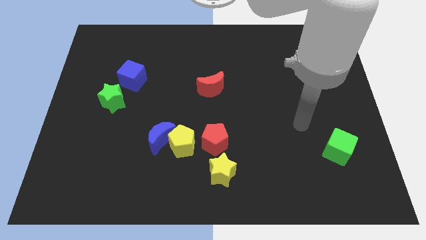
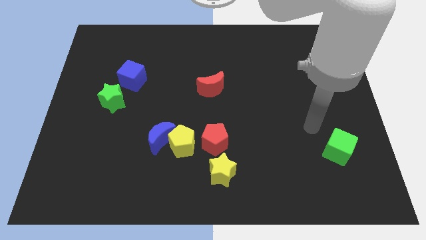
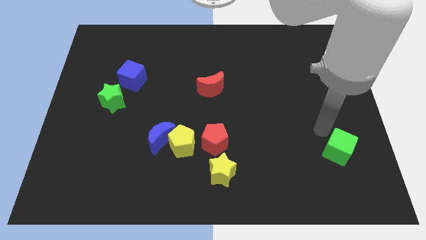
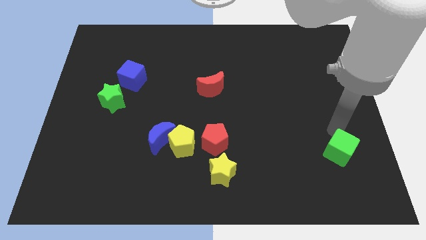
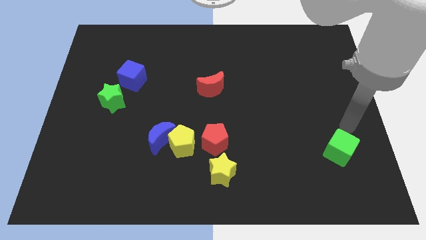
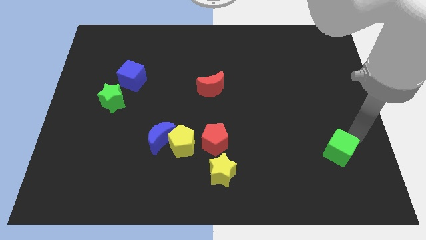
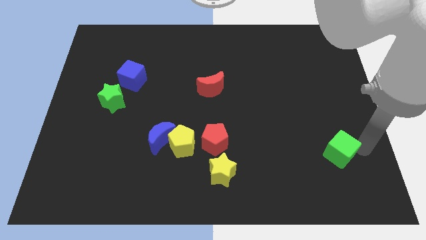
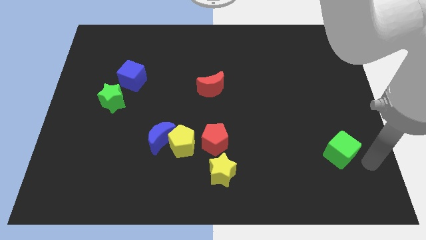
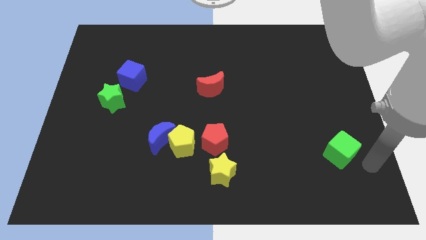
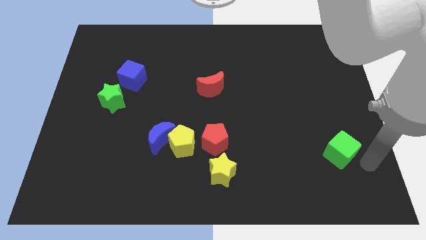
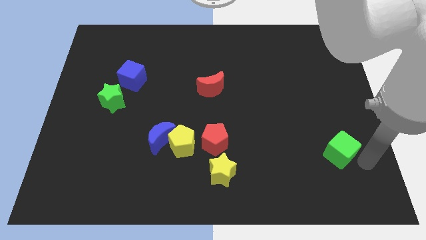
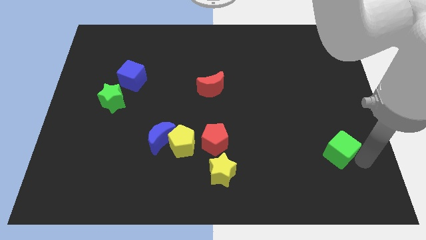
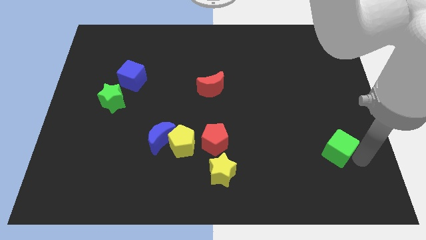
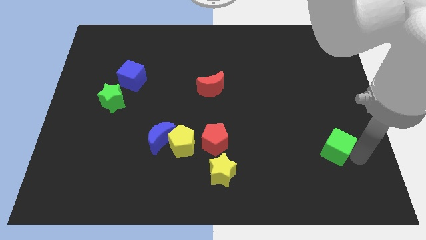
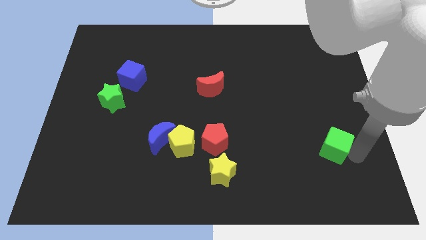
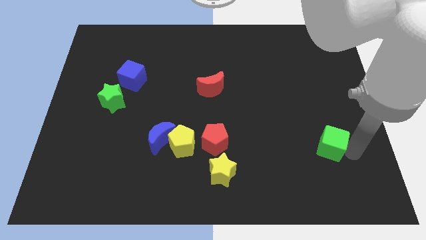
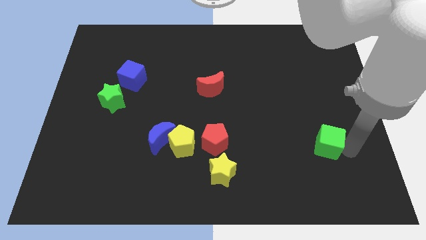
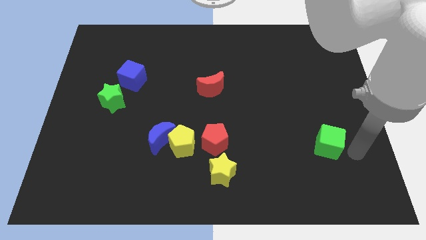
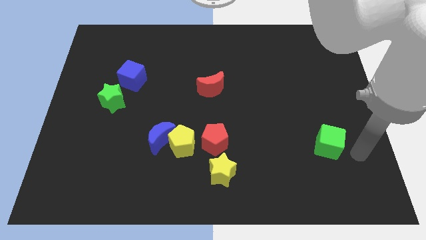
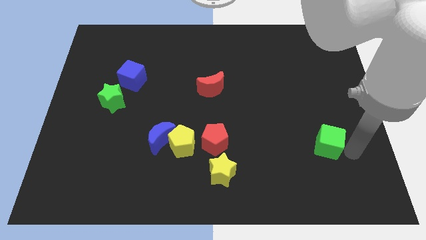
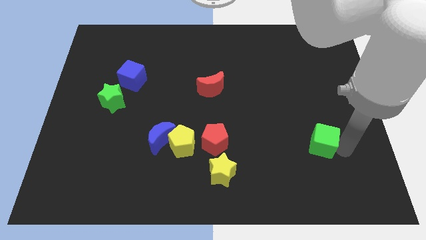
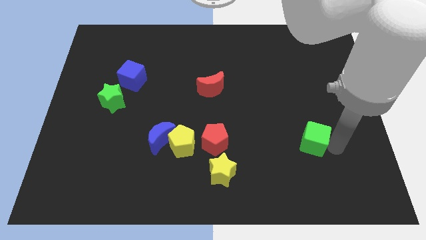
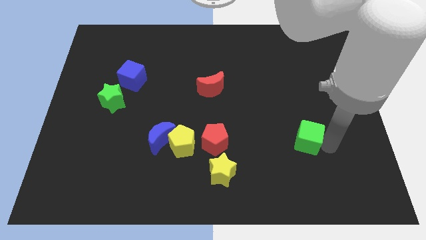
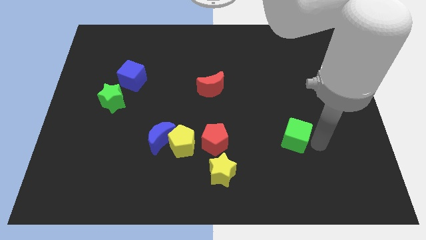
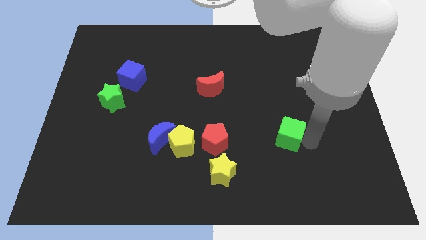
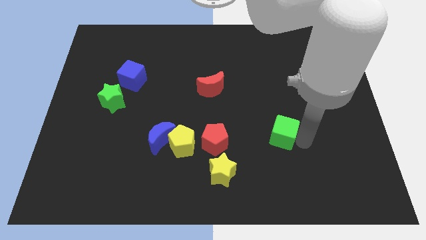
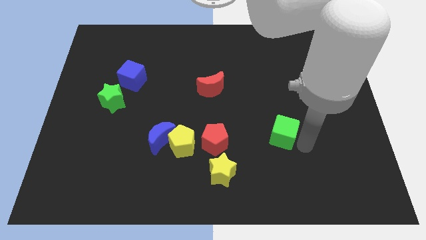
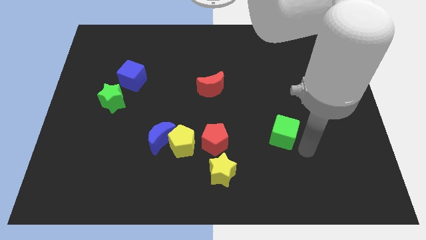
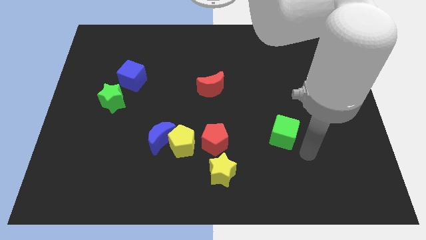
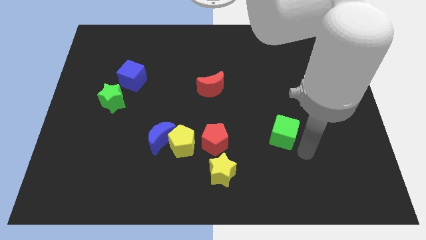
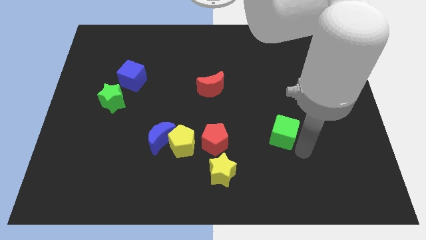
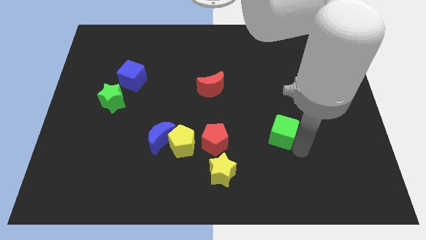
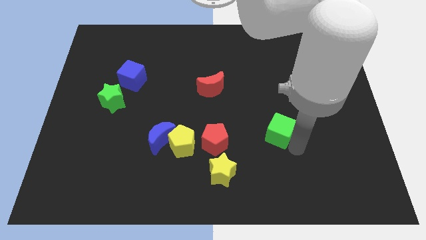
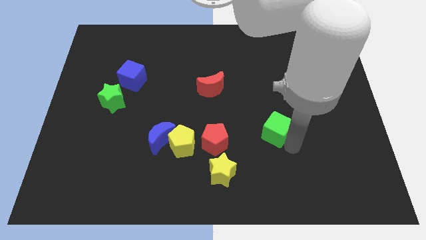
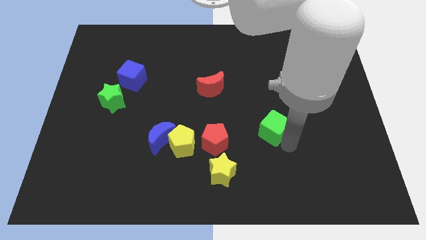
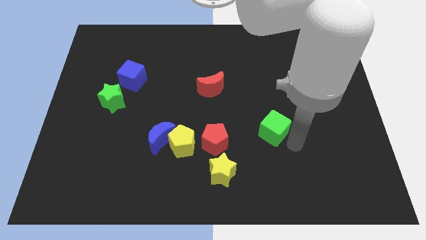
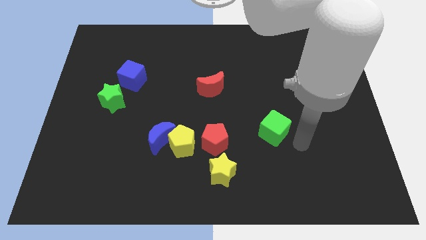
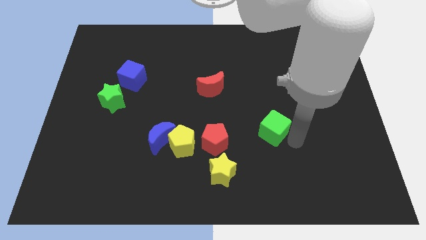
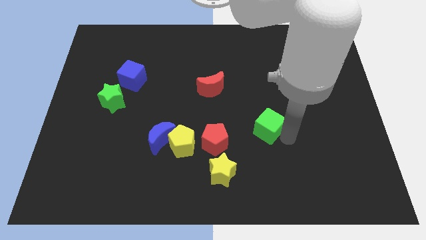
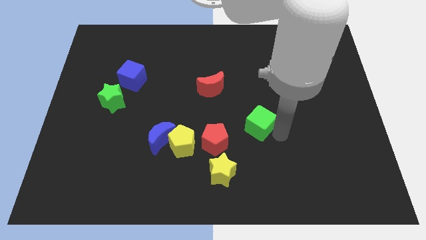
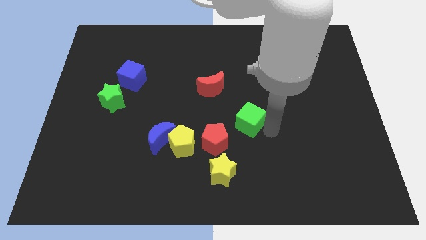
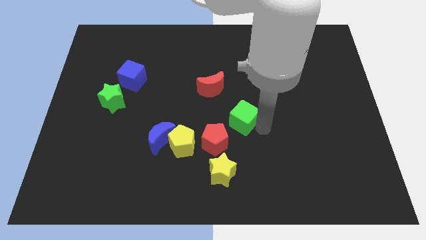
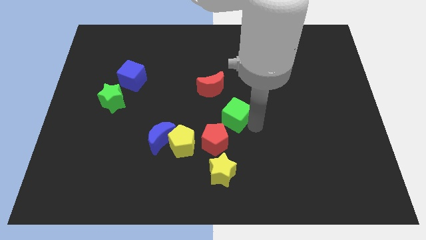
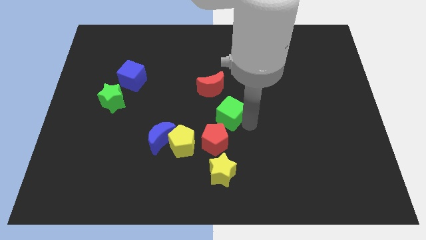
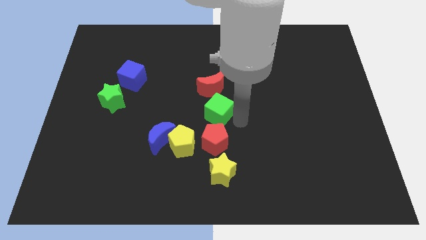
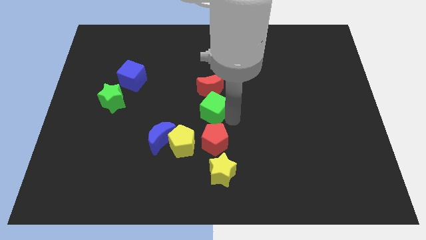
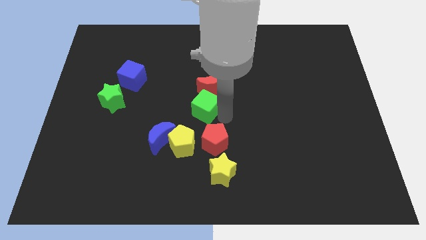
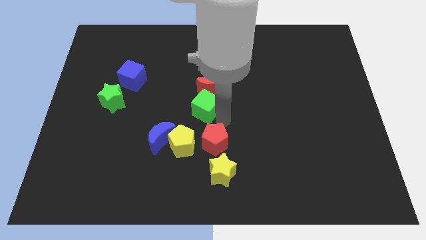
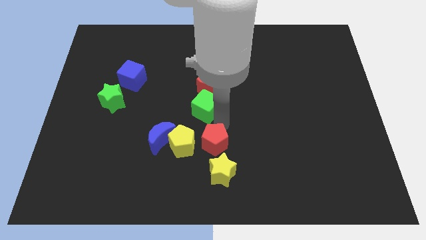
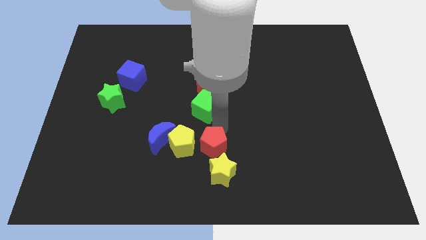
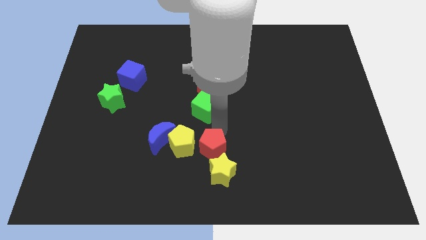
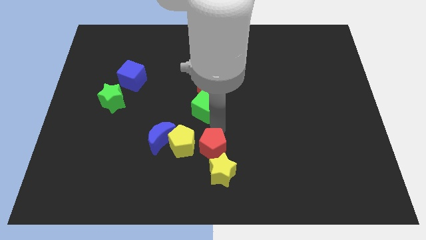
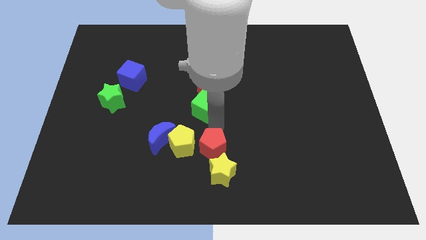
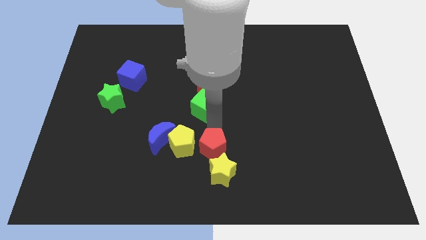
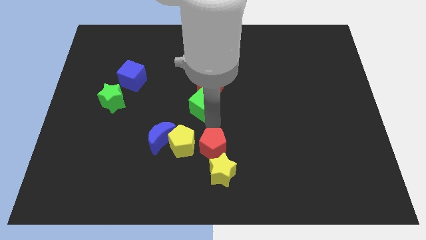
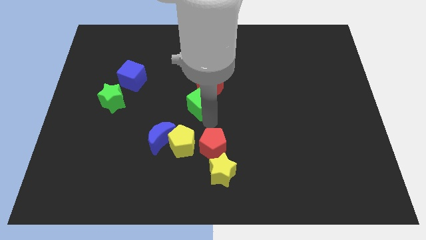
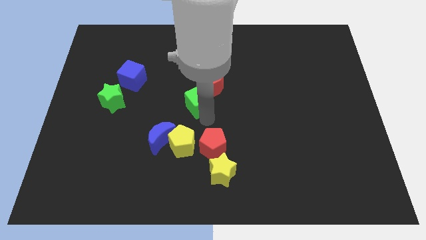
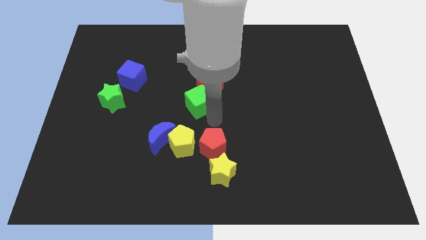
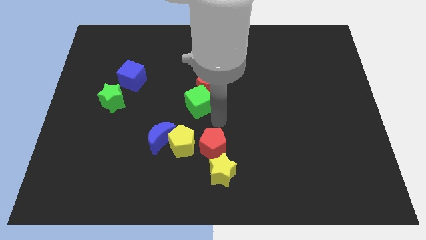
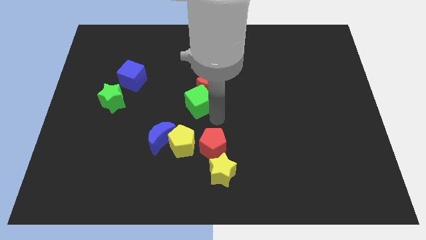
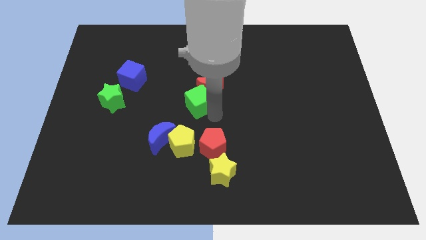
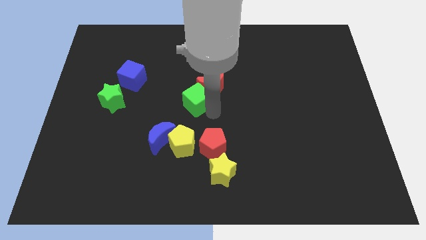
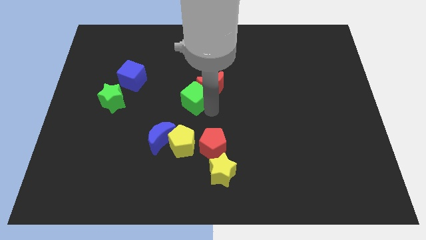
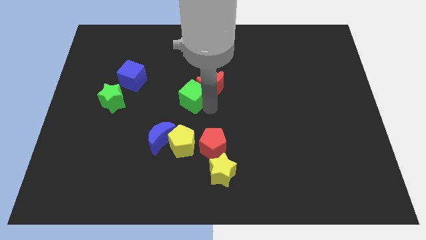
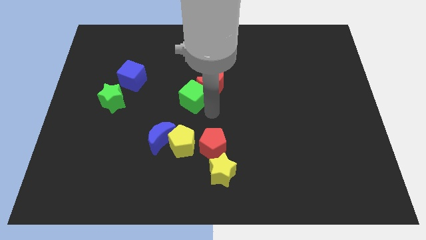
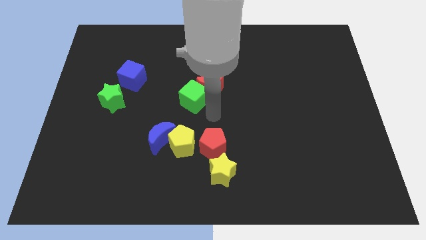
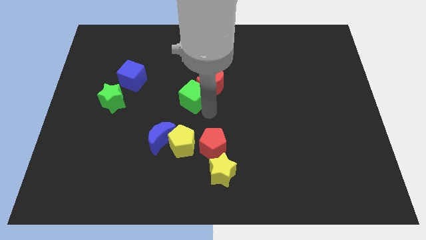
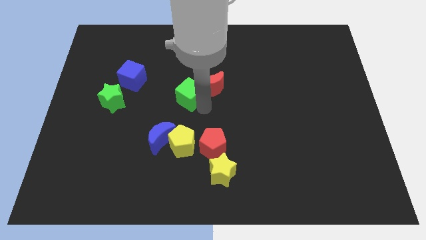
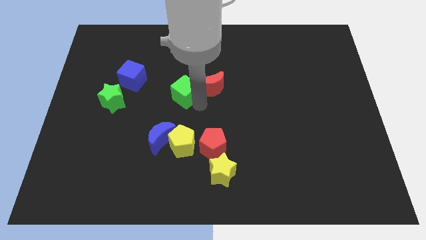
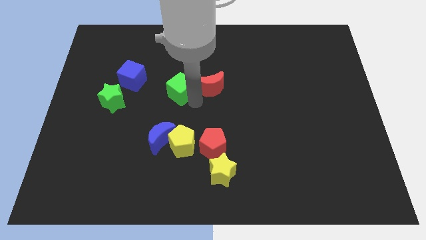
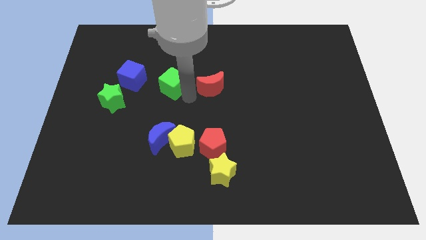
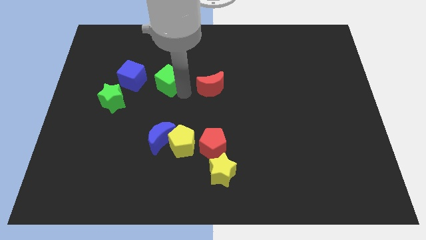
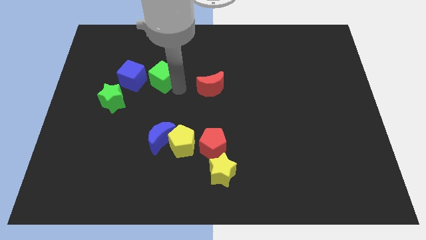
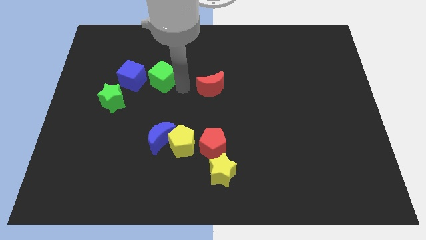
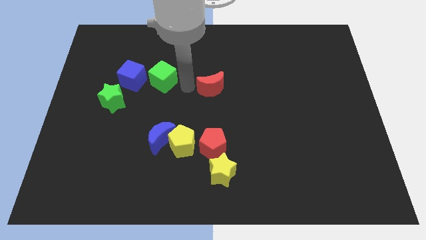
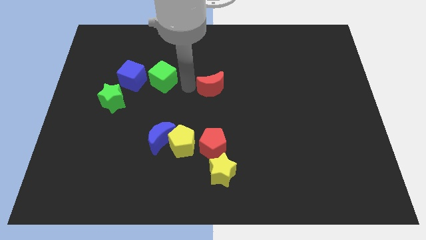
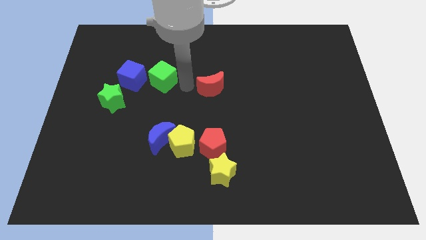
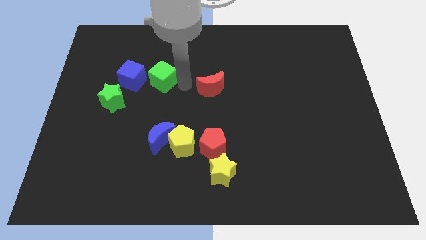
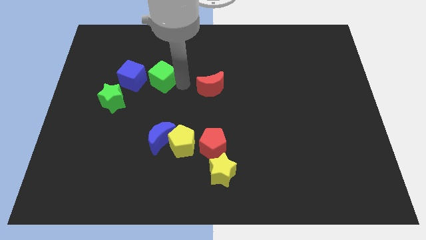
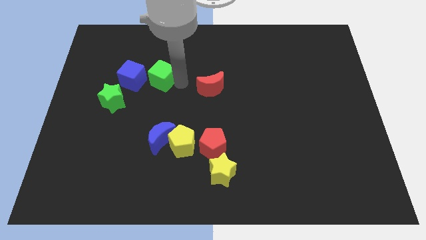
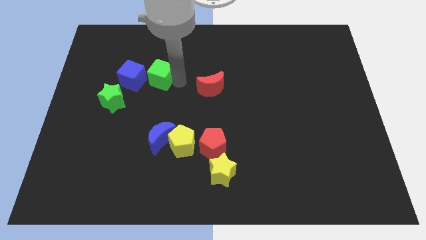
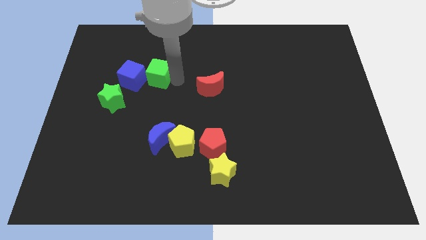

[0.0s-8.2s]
move the green cube to the top right side of the green star
